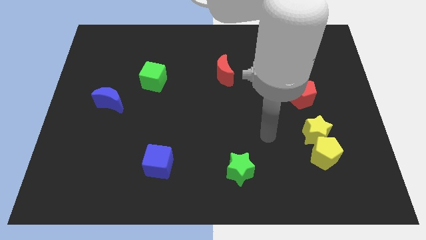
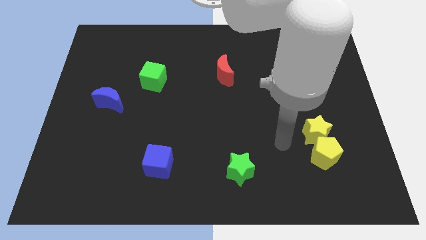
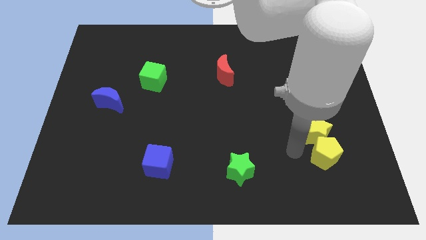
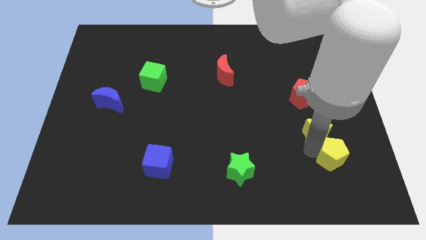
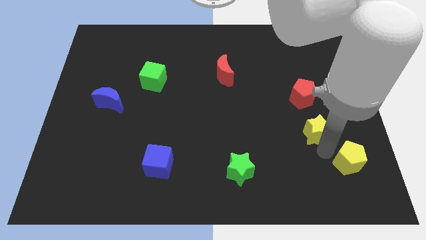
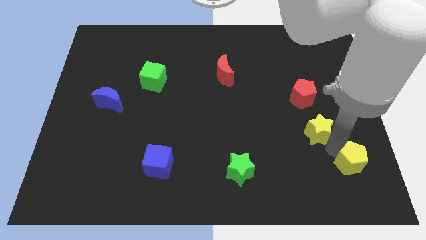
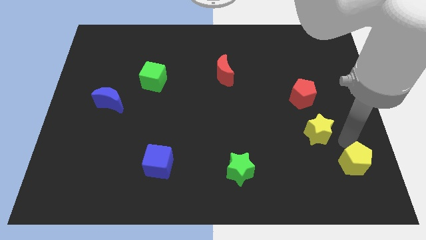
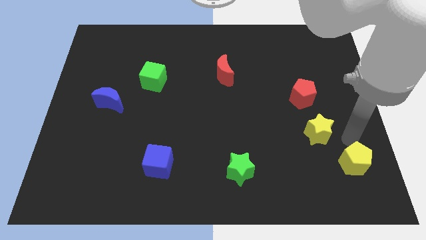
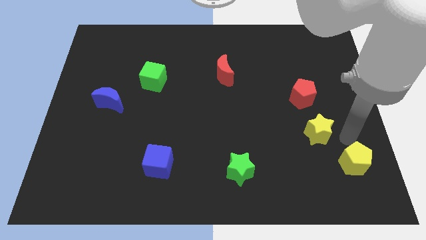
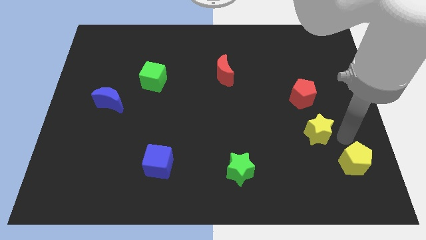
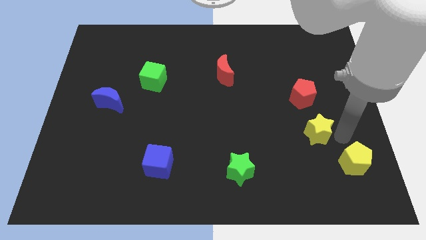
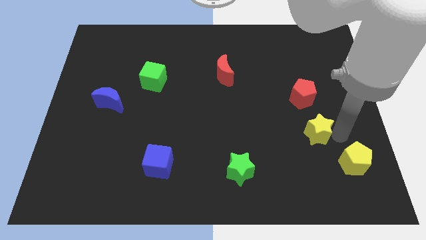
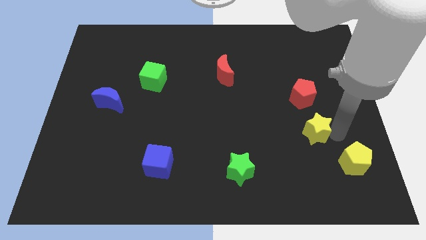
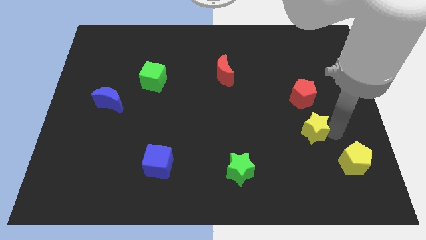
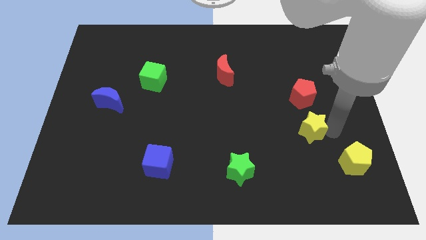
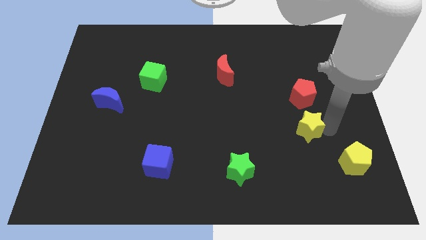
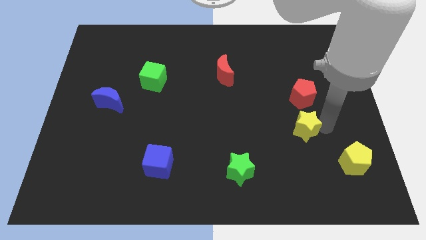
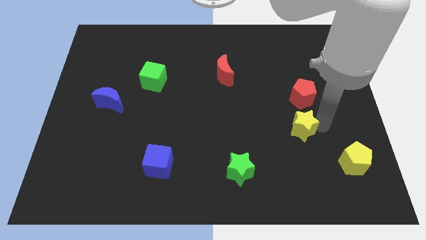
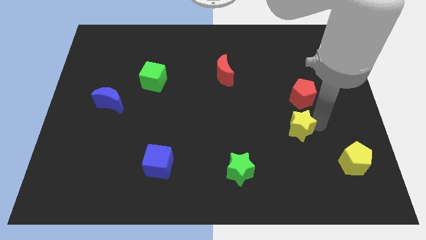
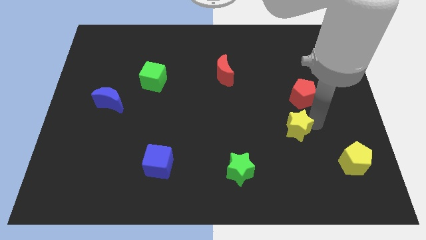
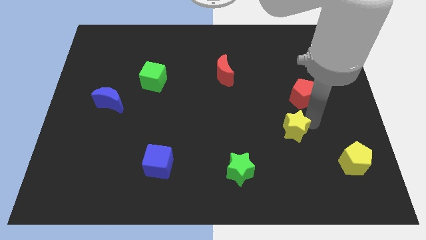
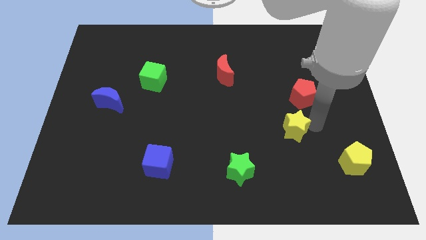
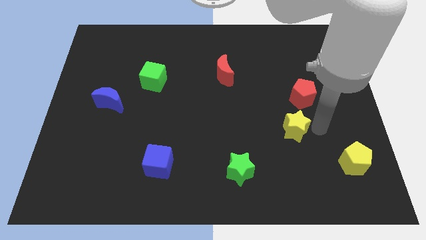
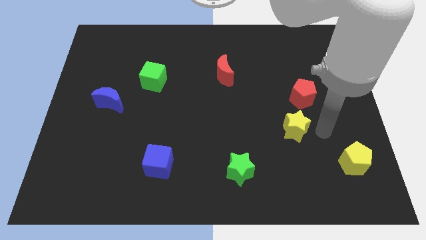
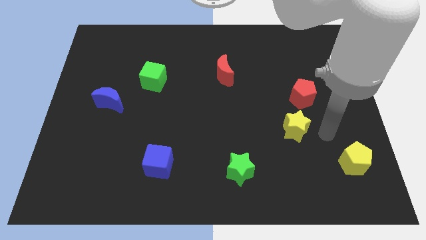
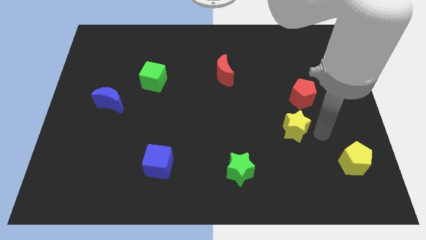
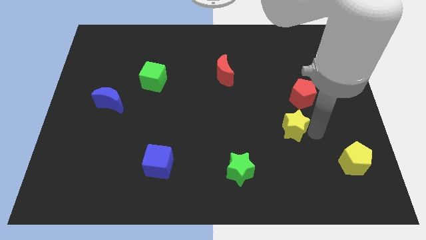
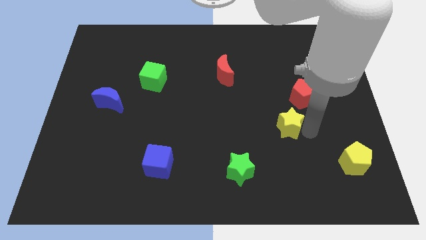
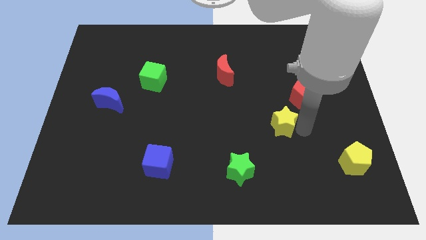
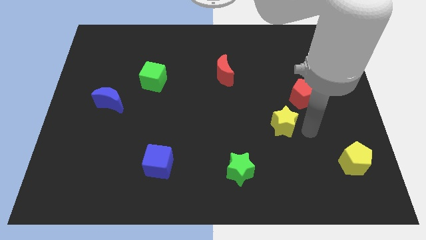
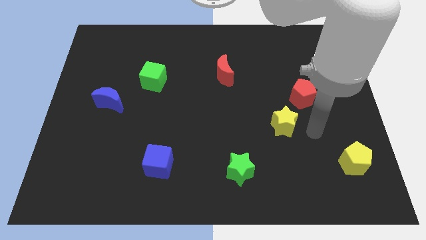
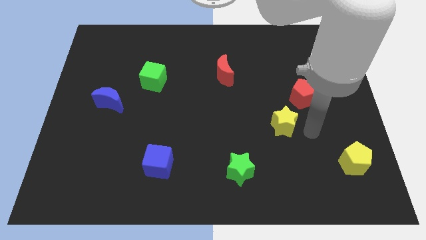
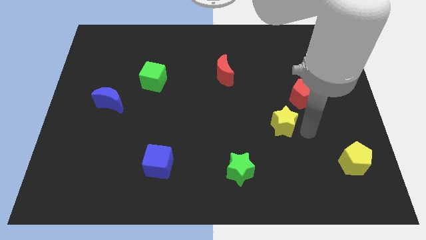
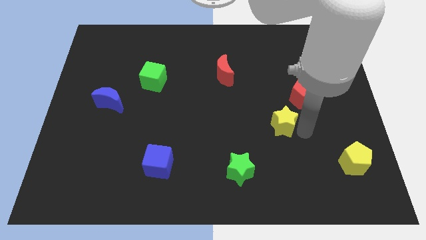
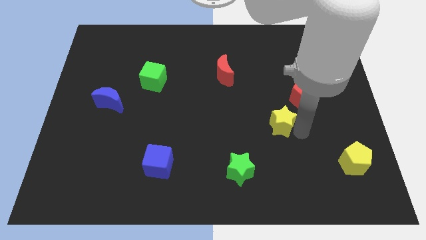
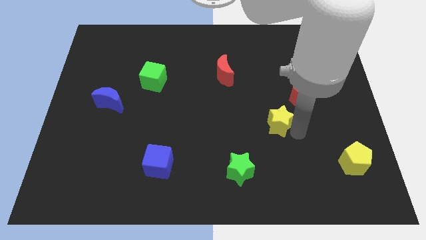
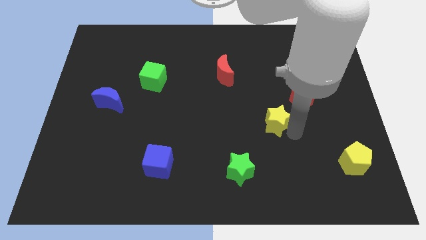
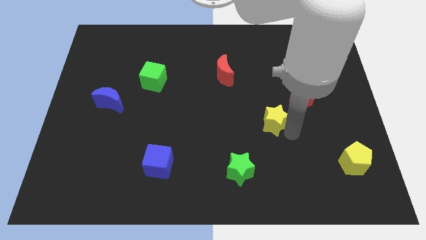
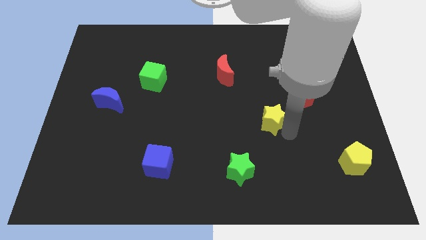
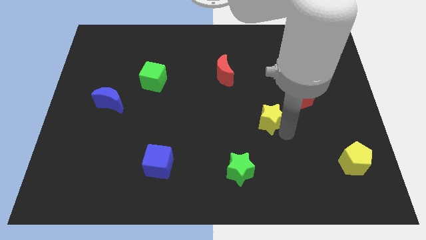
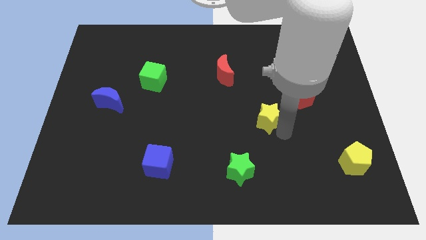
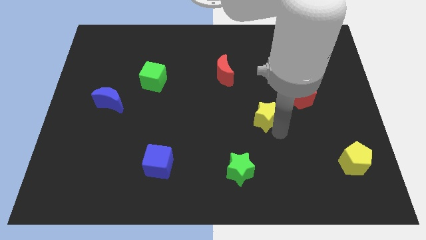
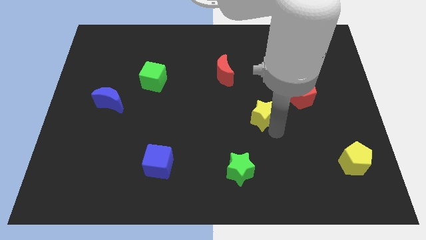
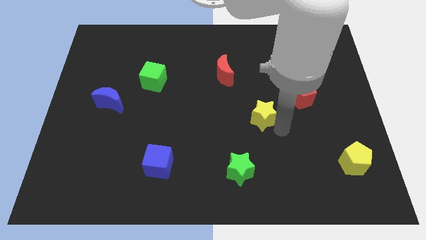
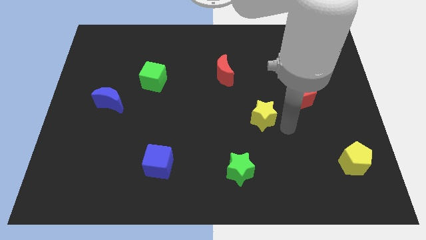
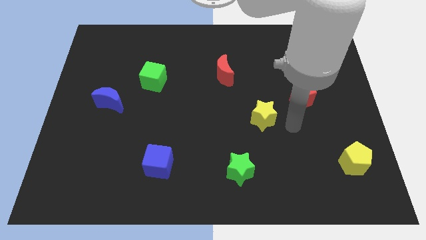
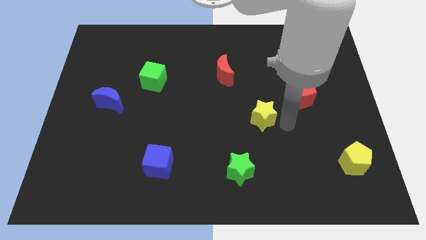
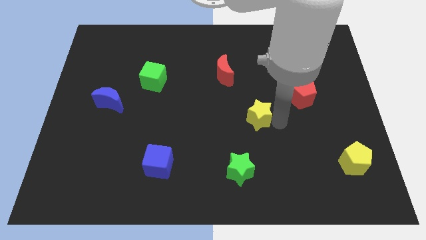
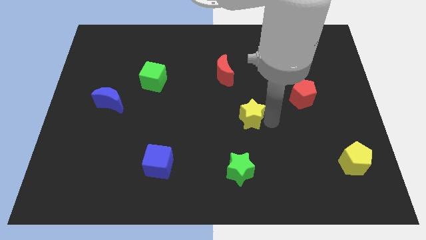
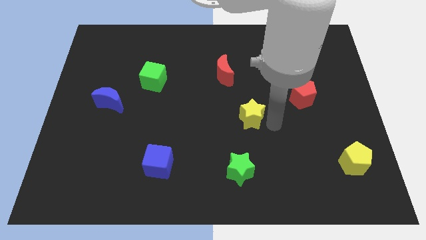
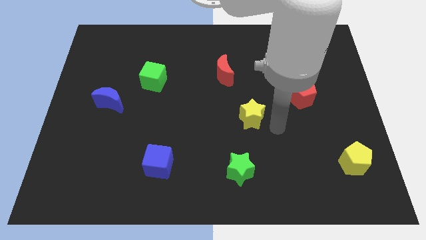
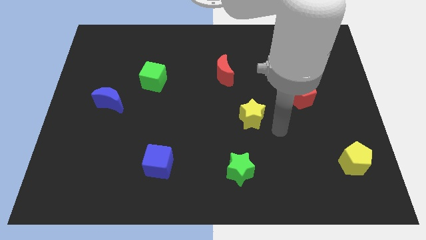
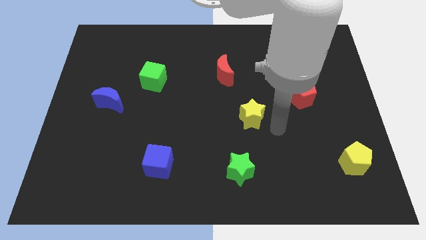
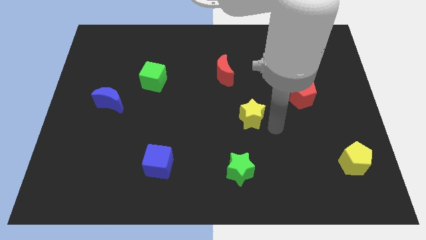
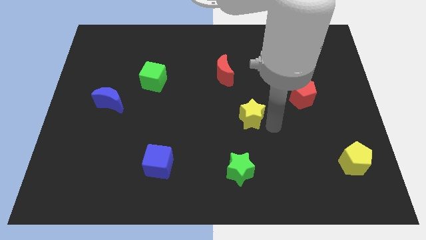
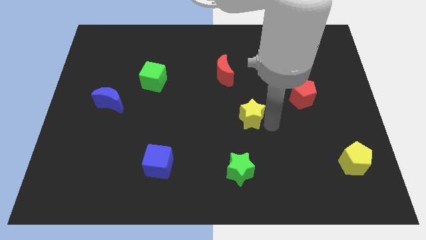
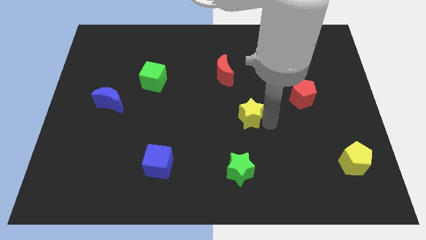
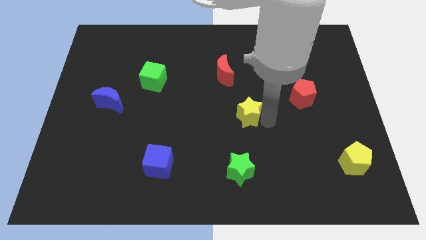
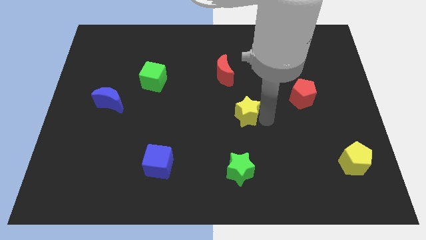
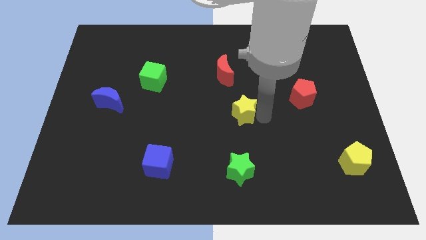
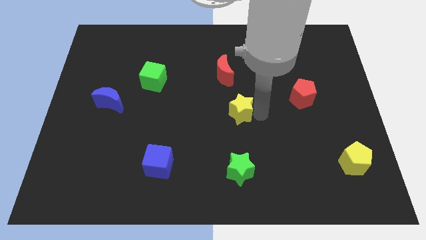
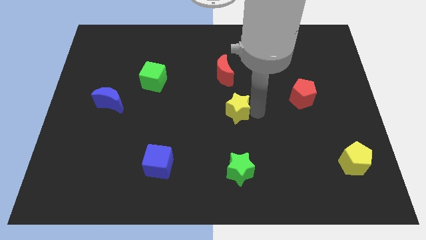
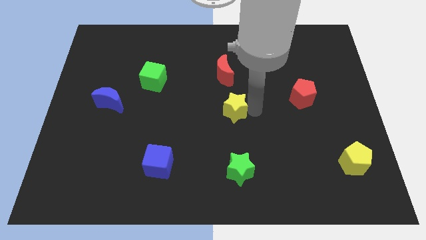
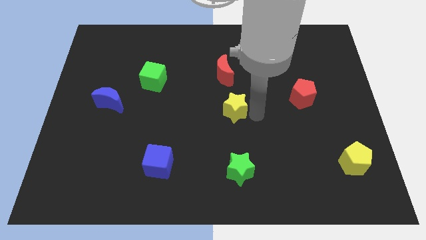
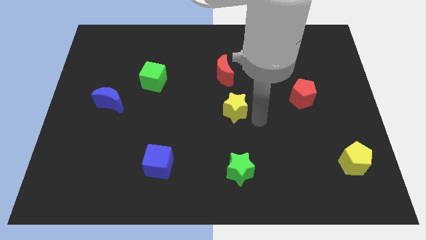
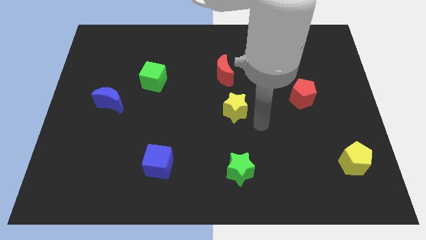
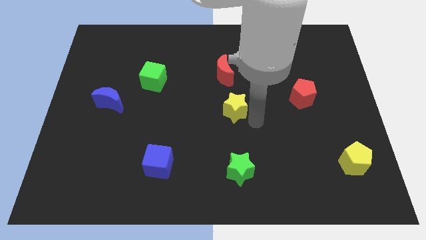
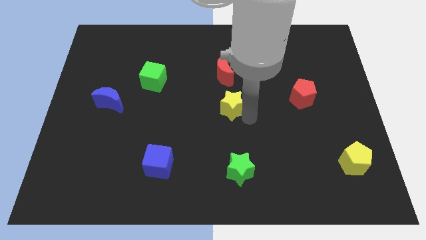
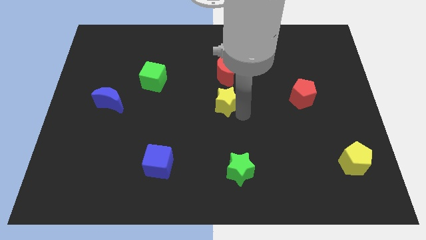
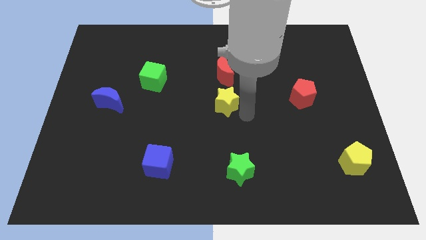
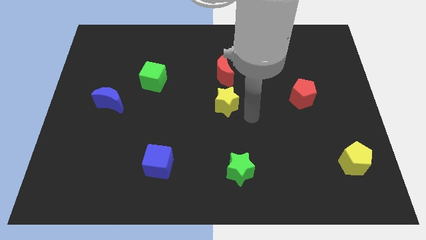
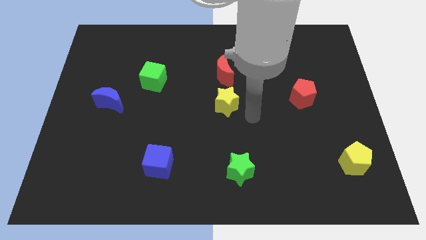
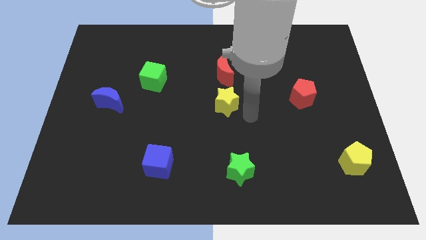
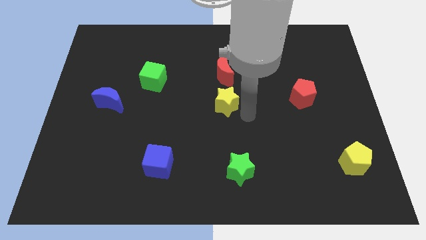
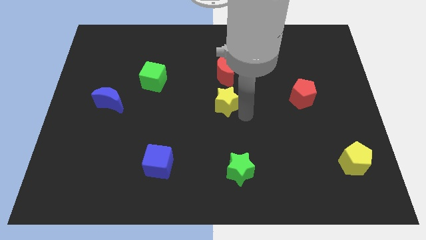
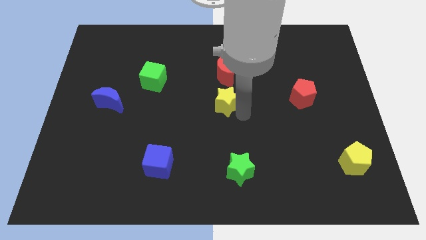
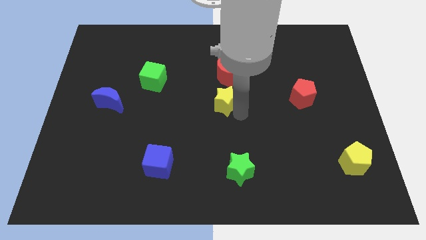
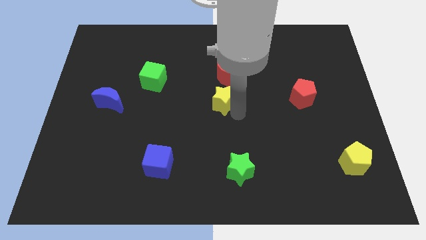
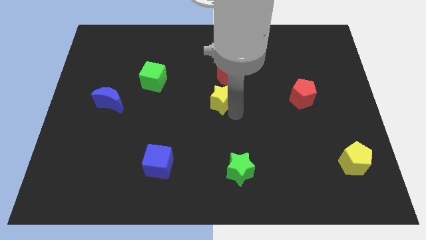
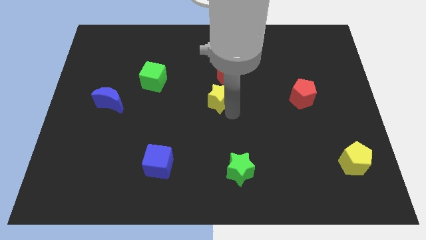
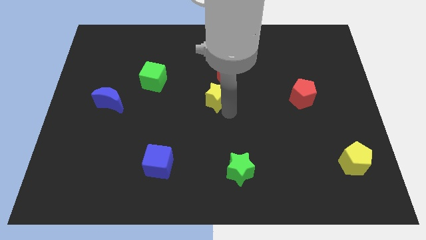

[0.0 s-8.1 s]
push the yellow star to the bottom left of the red moon
